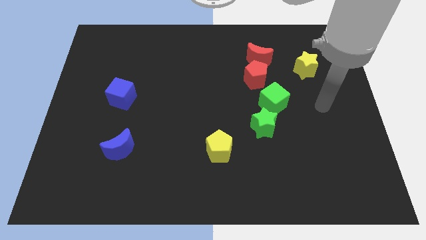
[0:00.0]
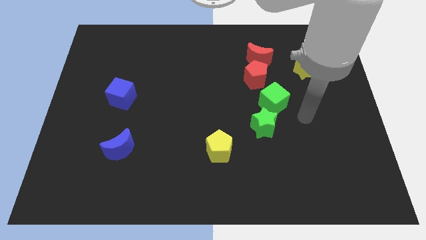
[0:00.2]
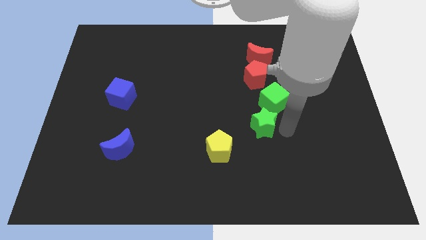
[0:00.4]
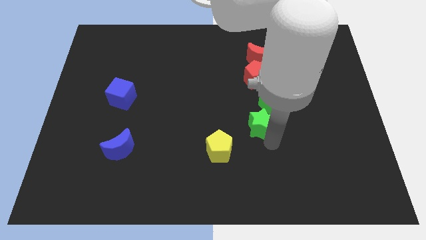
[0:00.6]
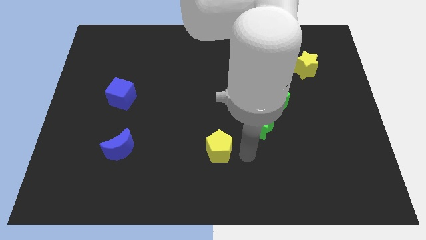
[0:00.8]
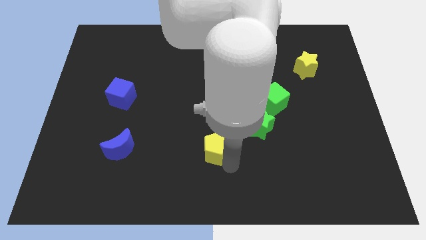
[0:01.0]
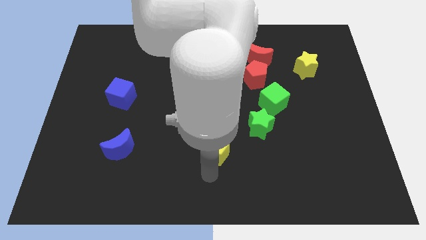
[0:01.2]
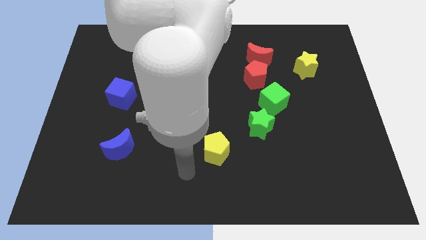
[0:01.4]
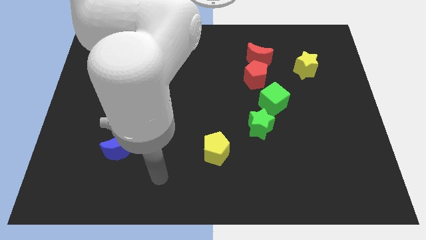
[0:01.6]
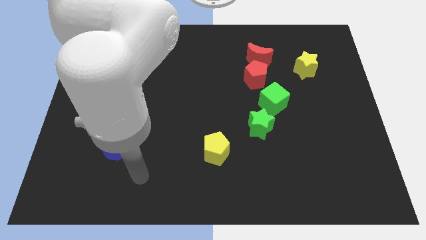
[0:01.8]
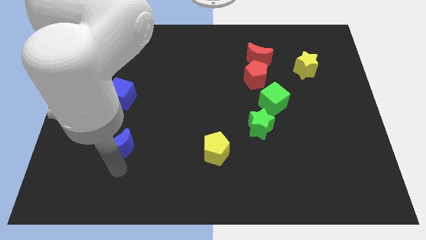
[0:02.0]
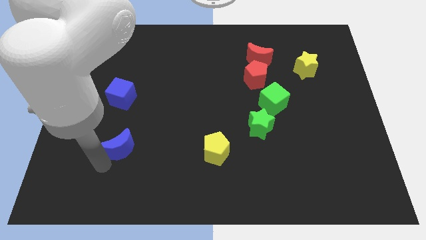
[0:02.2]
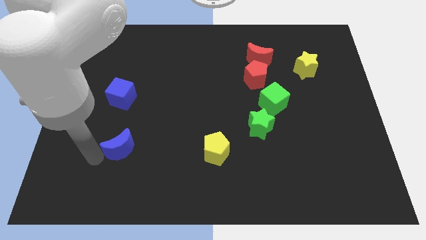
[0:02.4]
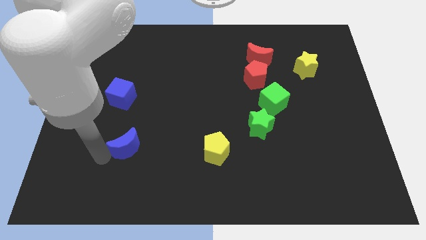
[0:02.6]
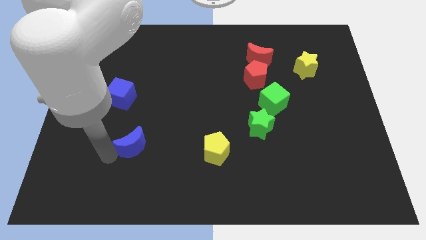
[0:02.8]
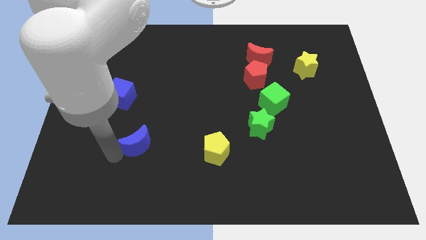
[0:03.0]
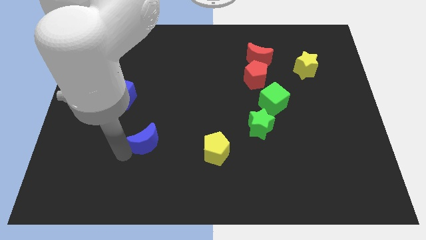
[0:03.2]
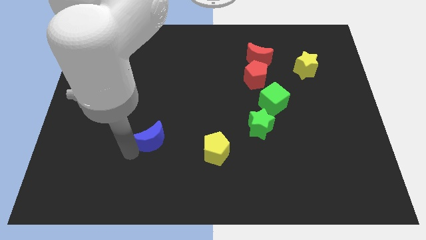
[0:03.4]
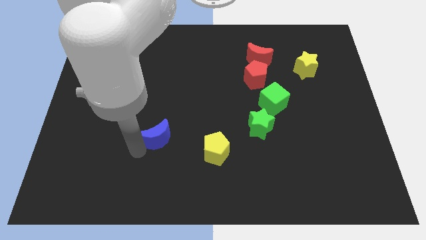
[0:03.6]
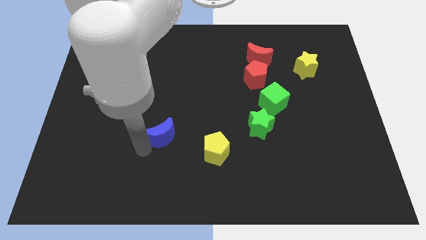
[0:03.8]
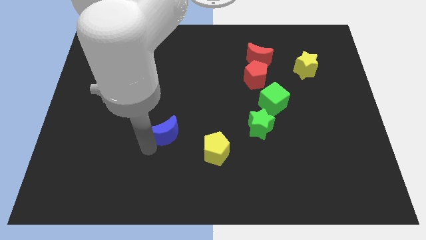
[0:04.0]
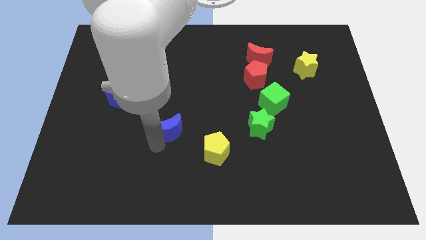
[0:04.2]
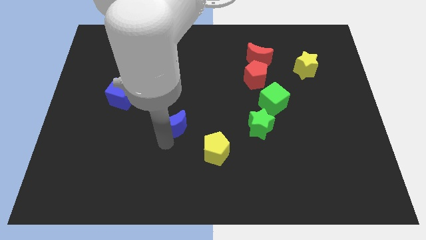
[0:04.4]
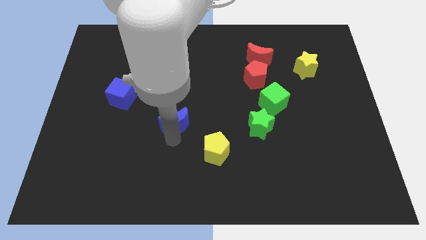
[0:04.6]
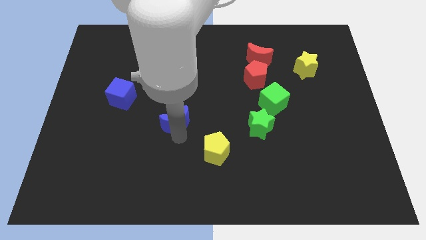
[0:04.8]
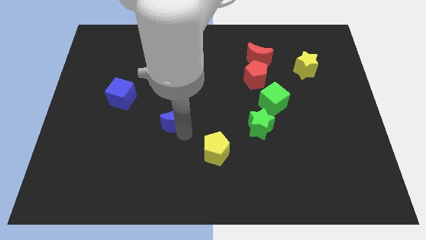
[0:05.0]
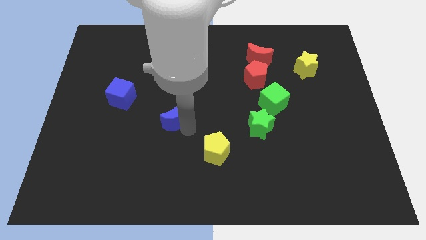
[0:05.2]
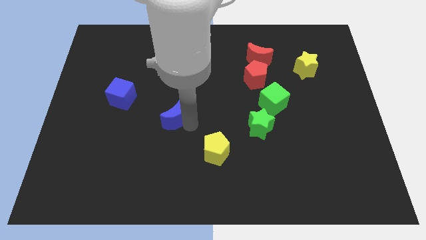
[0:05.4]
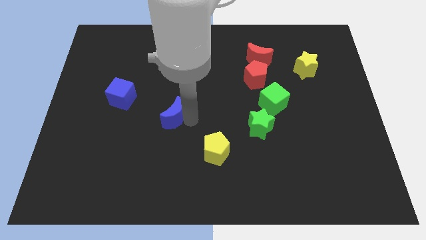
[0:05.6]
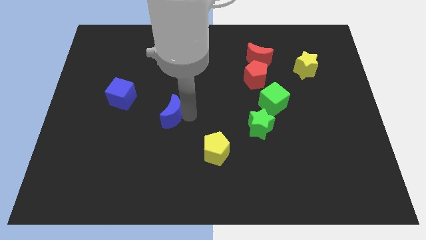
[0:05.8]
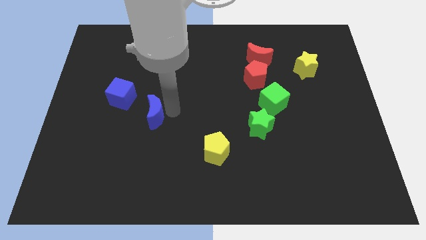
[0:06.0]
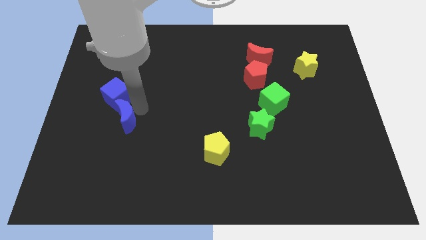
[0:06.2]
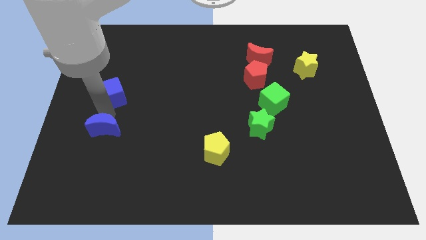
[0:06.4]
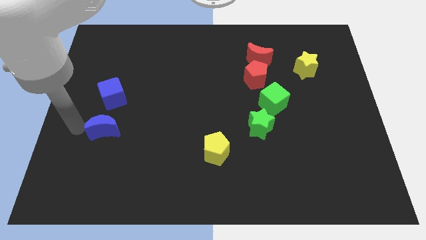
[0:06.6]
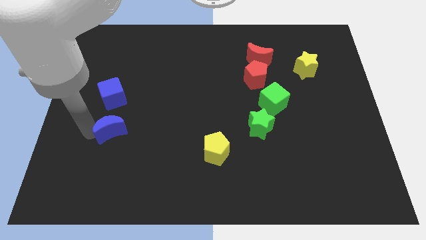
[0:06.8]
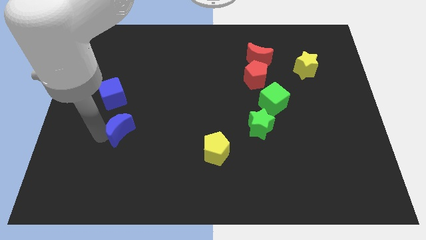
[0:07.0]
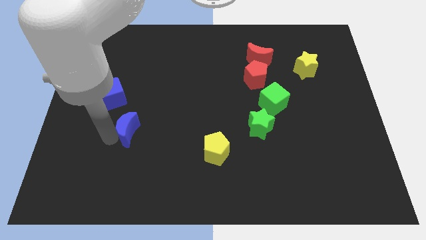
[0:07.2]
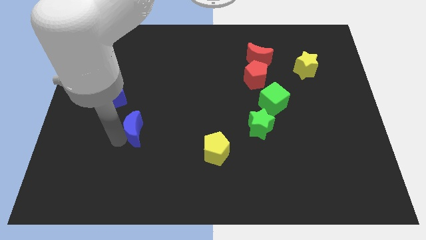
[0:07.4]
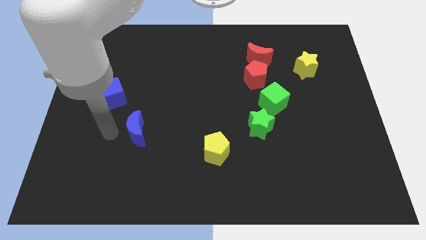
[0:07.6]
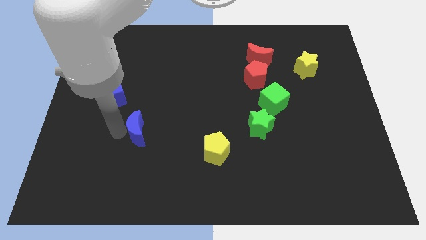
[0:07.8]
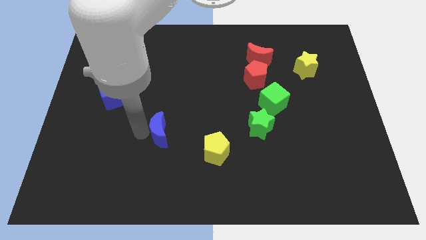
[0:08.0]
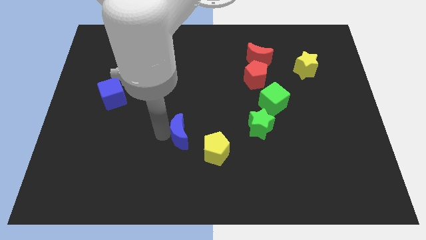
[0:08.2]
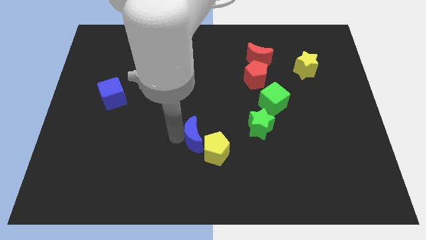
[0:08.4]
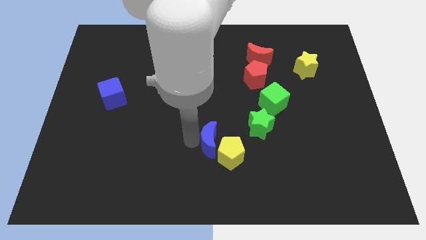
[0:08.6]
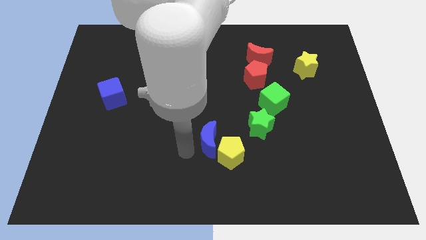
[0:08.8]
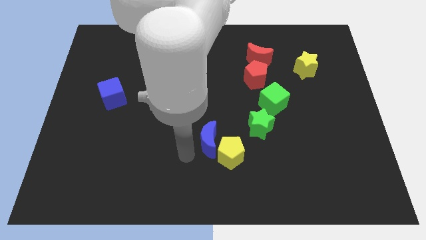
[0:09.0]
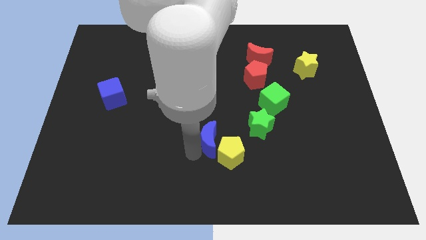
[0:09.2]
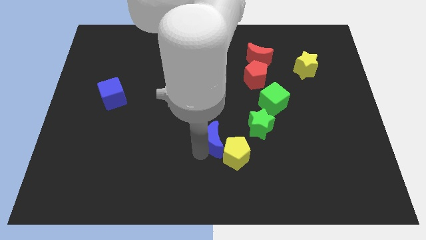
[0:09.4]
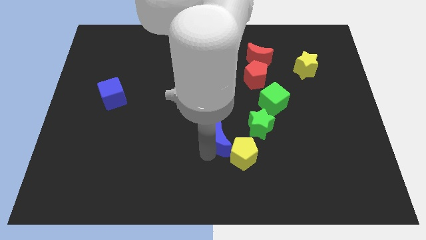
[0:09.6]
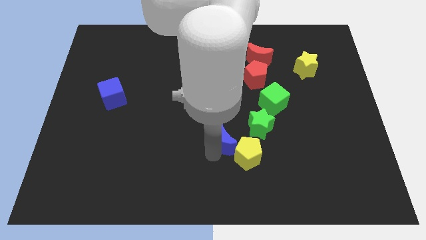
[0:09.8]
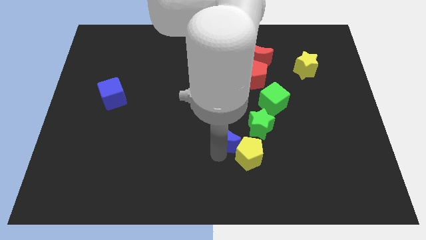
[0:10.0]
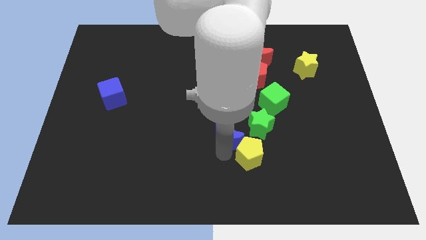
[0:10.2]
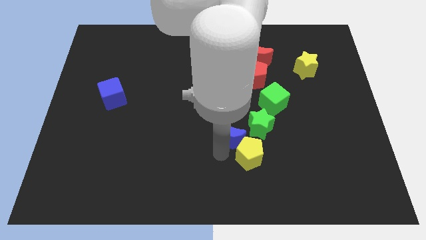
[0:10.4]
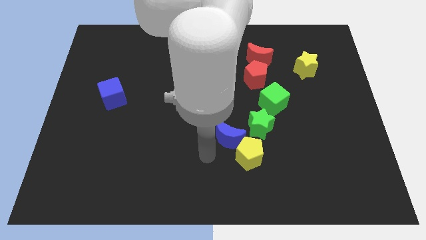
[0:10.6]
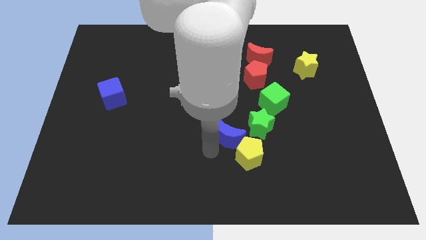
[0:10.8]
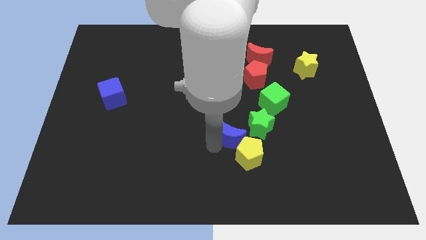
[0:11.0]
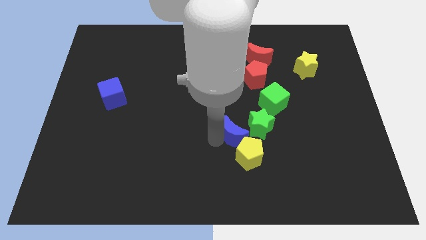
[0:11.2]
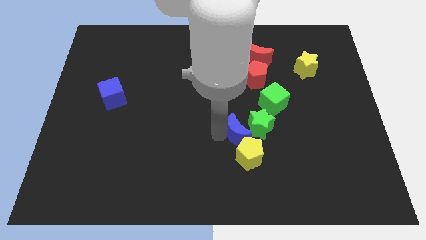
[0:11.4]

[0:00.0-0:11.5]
slide the blue moon diagonally down and to the left of the green cube

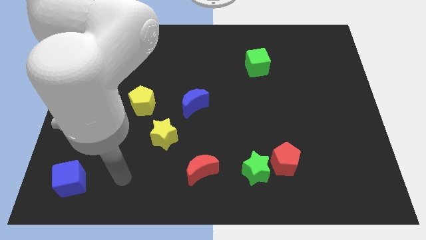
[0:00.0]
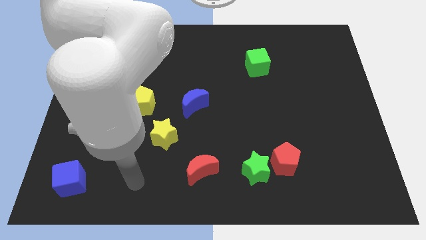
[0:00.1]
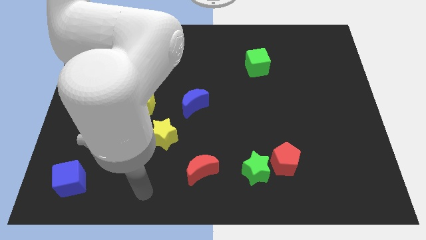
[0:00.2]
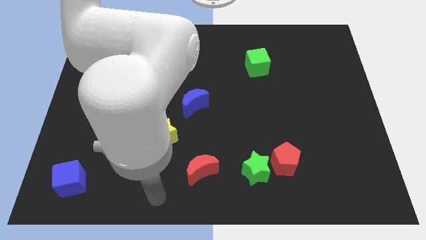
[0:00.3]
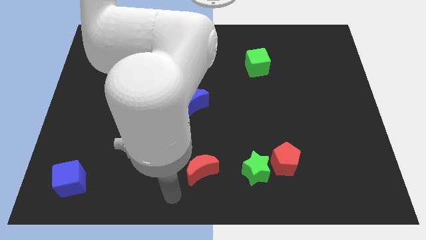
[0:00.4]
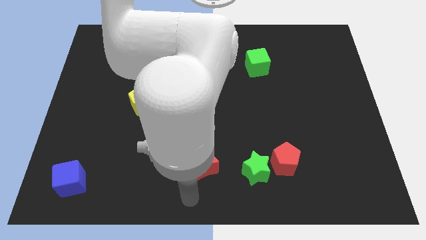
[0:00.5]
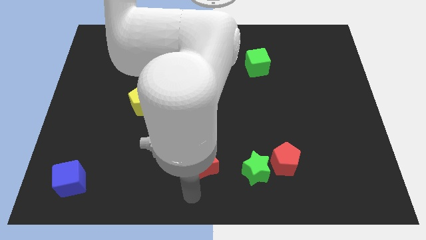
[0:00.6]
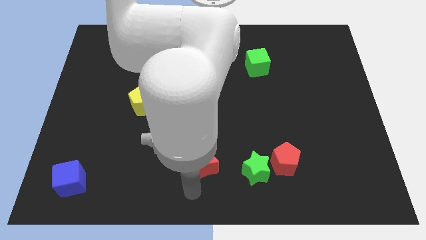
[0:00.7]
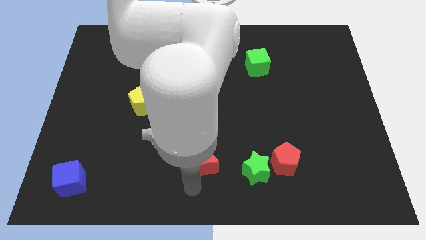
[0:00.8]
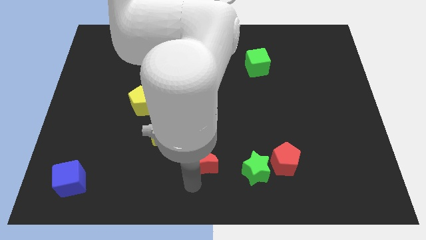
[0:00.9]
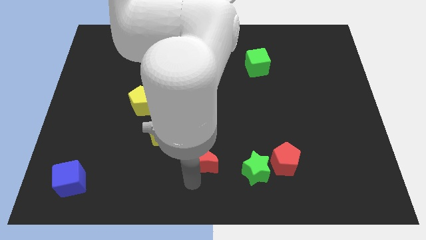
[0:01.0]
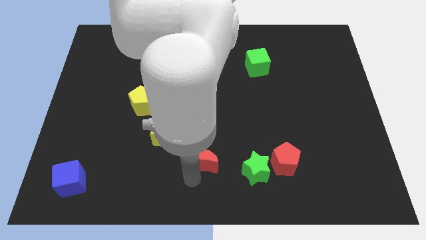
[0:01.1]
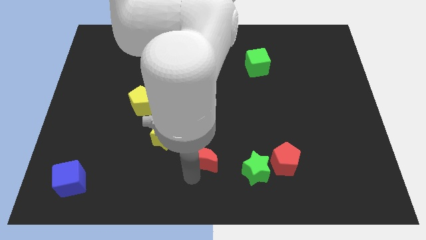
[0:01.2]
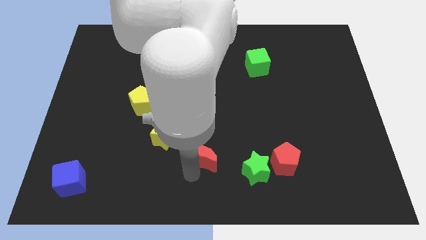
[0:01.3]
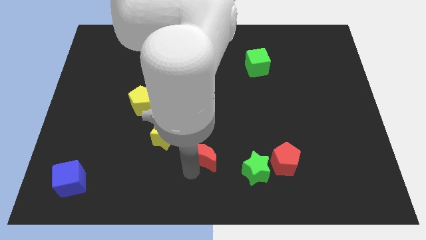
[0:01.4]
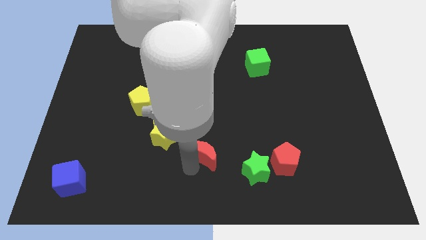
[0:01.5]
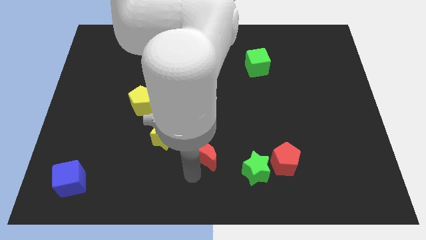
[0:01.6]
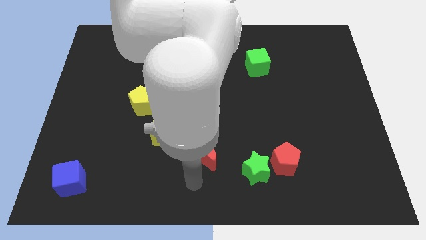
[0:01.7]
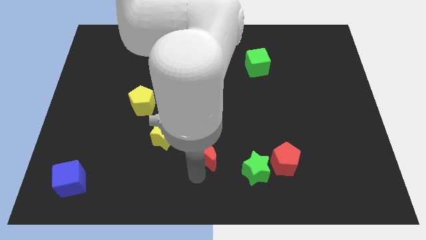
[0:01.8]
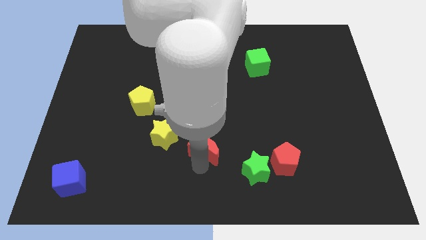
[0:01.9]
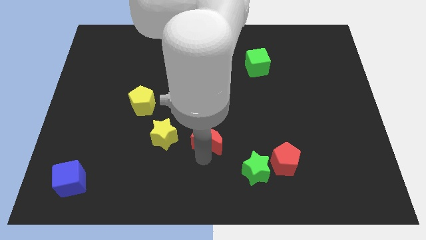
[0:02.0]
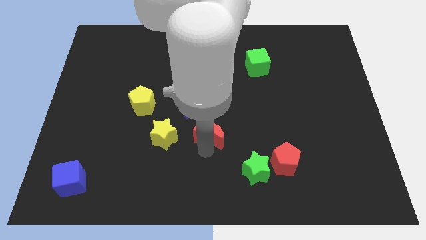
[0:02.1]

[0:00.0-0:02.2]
slide the red moon to the bottom right side of the blue moon

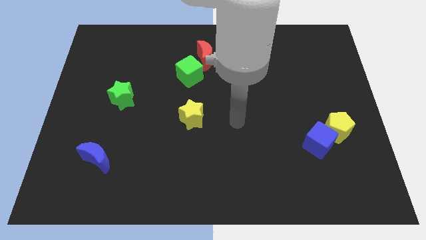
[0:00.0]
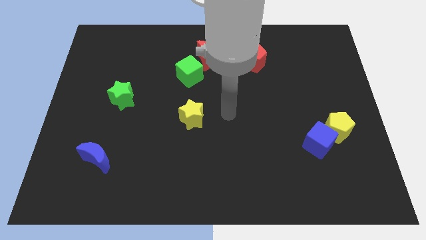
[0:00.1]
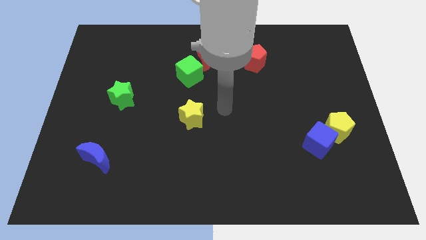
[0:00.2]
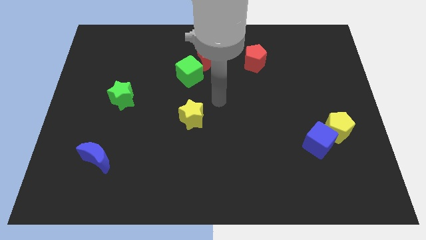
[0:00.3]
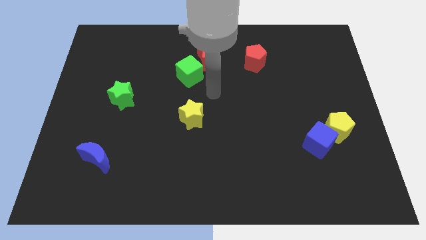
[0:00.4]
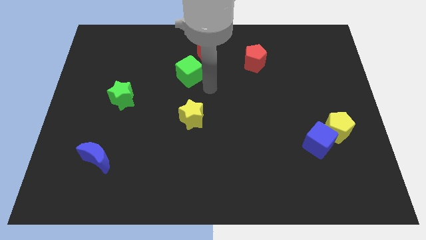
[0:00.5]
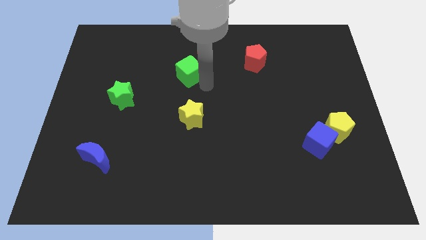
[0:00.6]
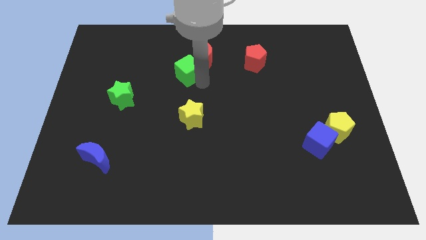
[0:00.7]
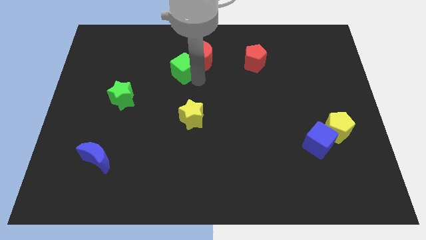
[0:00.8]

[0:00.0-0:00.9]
slide the green cube just left of the red moon
